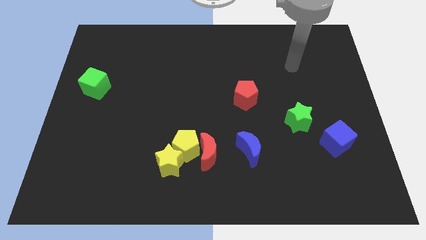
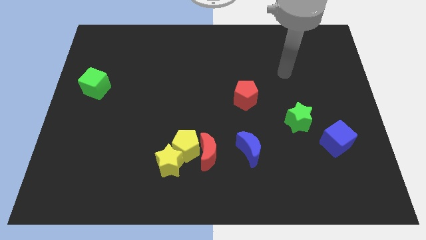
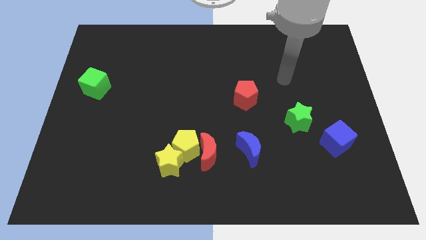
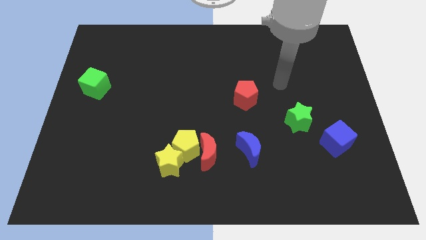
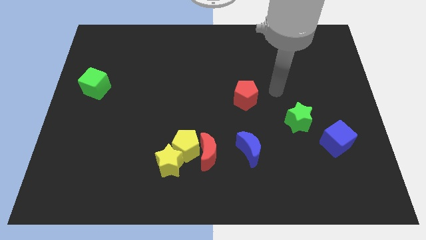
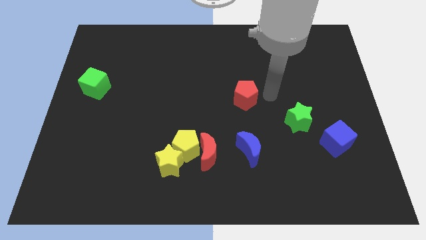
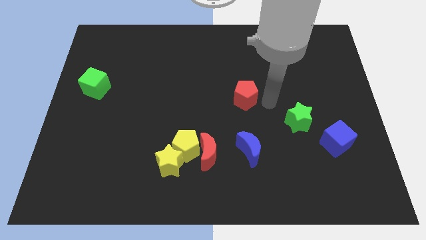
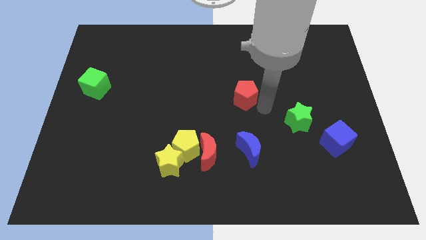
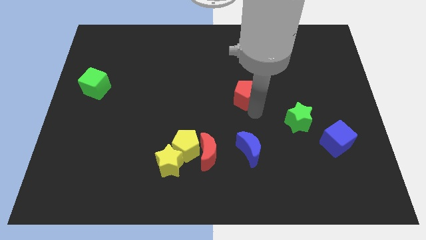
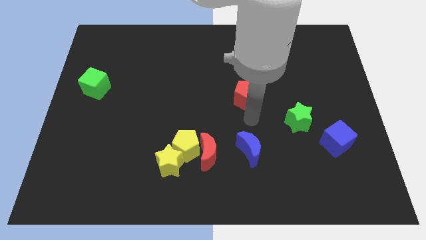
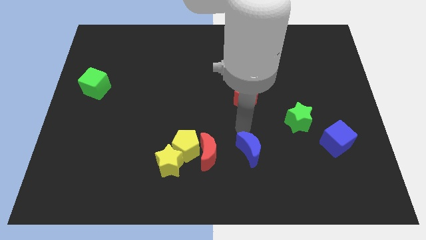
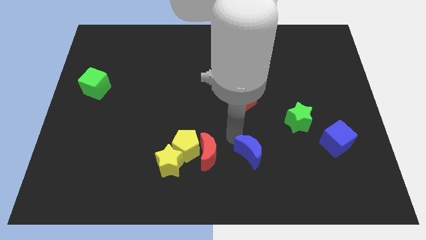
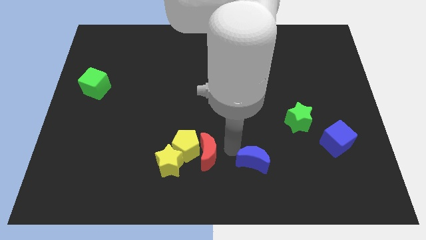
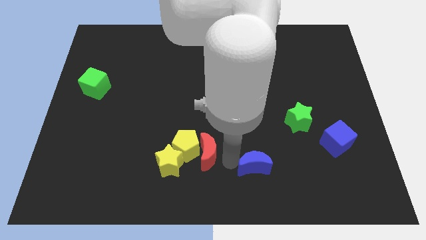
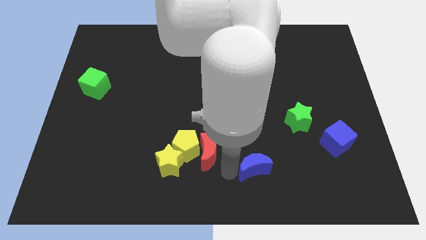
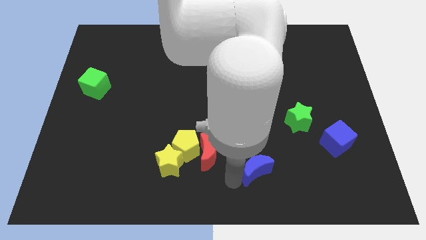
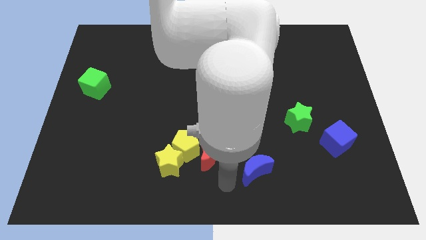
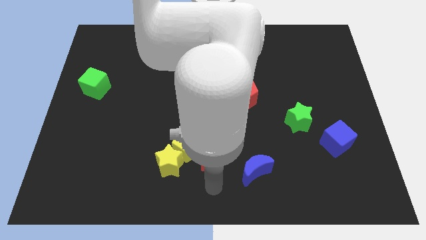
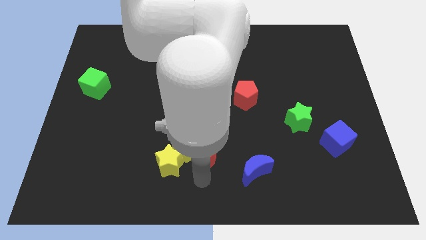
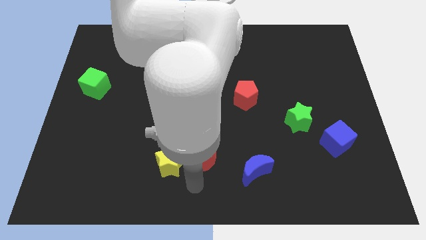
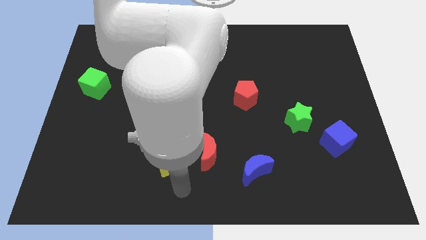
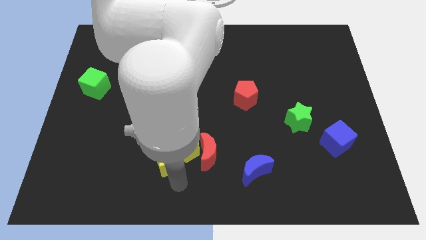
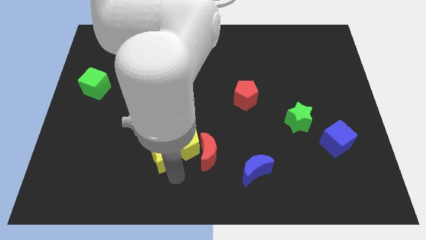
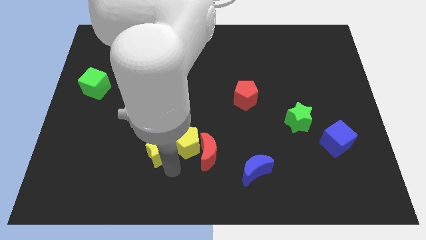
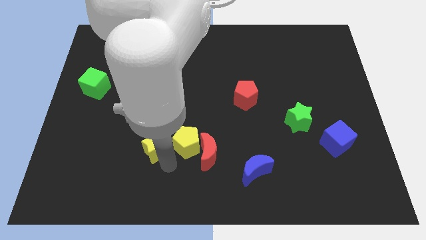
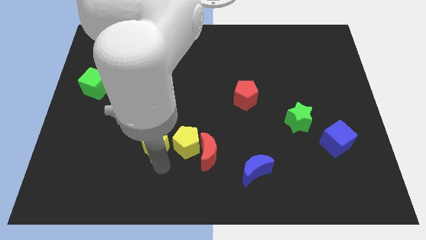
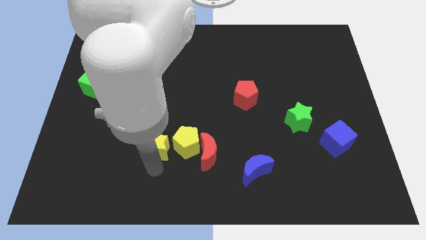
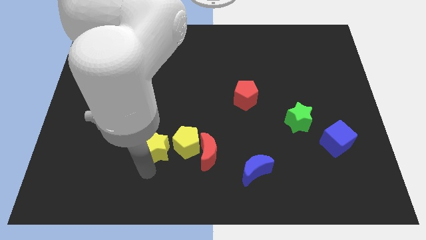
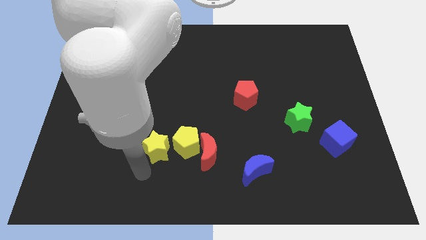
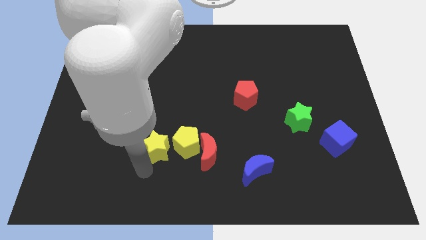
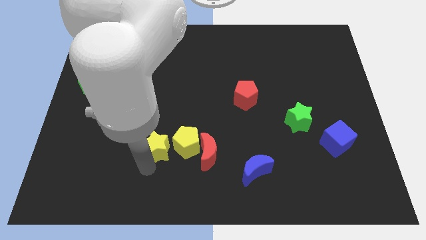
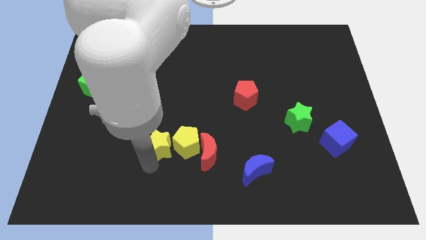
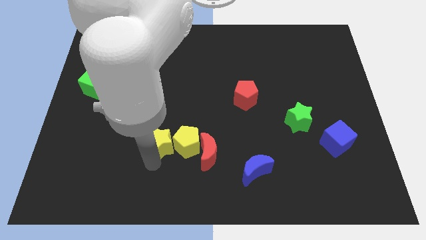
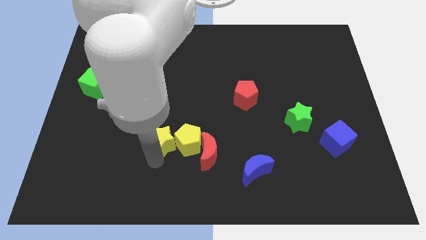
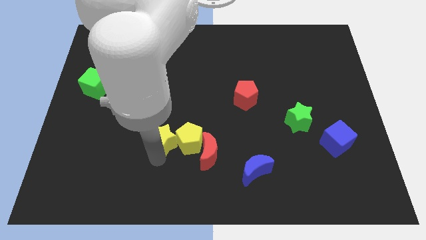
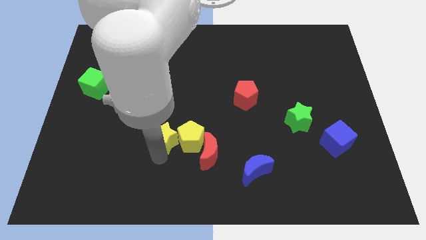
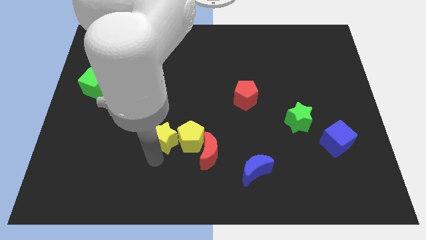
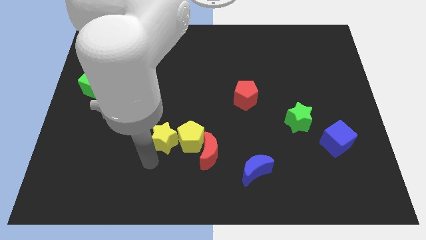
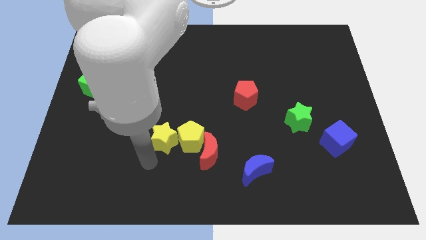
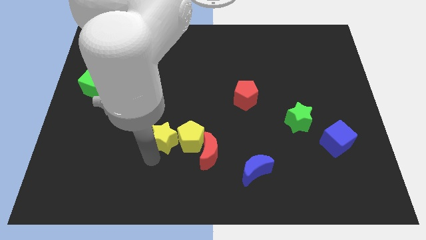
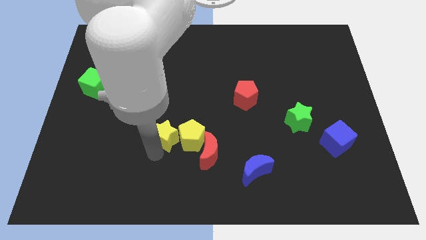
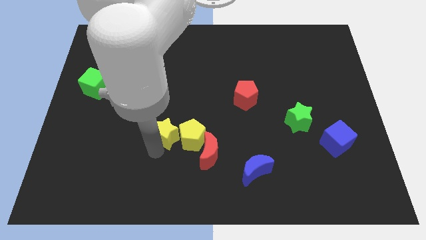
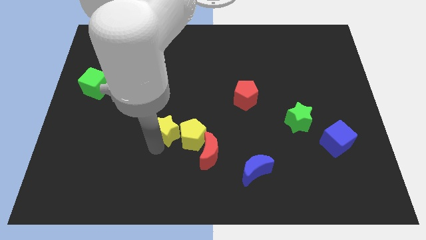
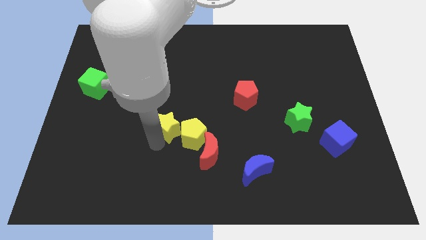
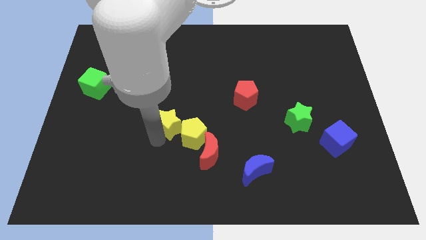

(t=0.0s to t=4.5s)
push the yellow star to the center

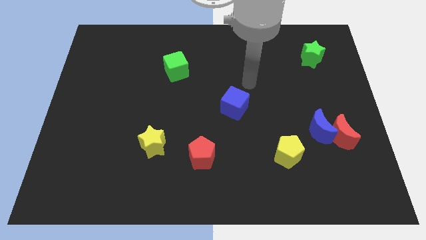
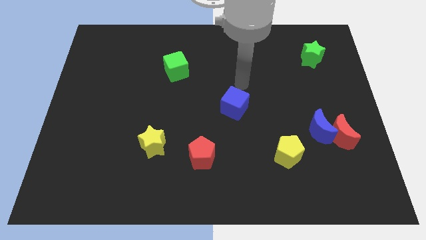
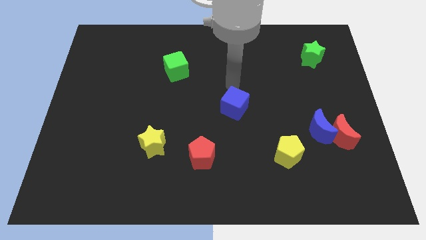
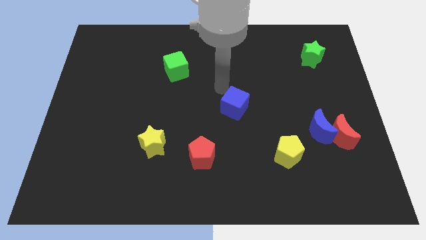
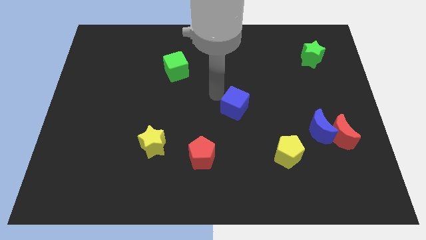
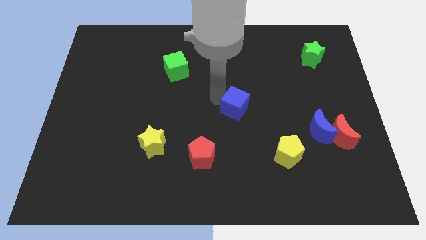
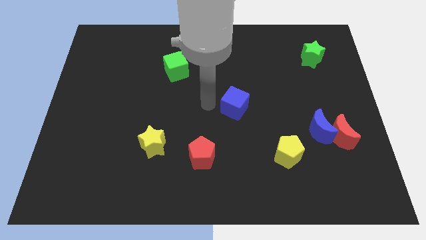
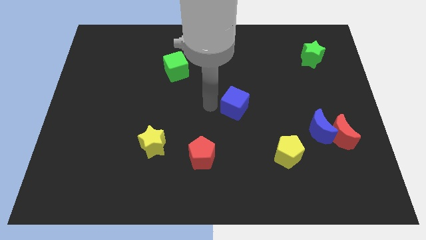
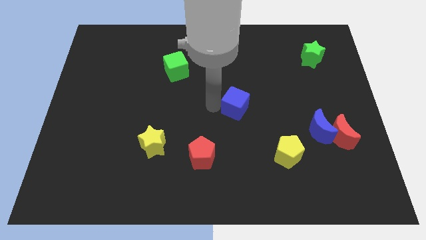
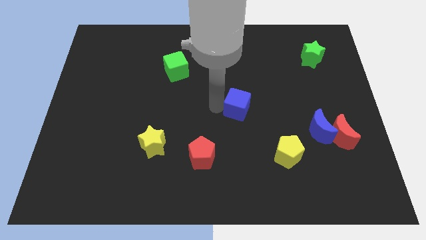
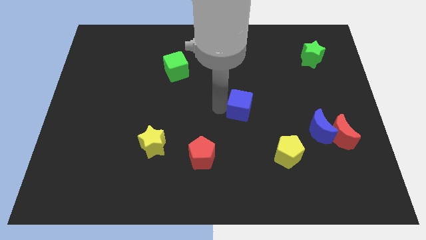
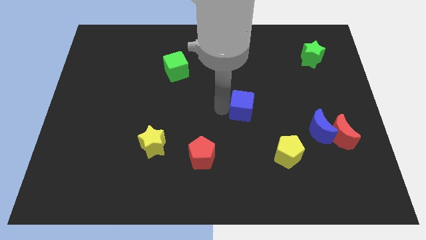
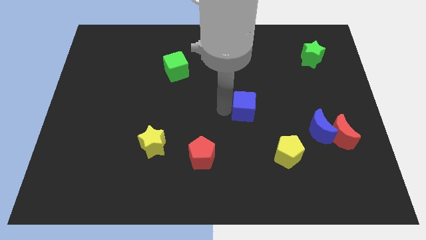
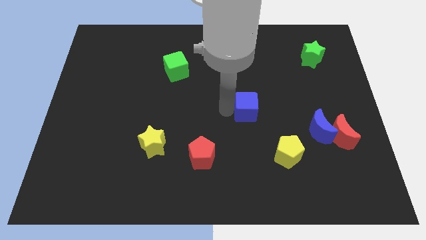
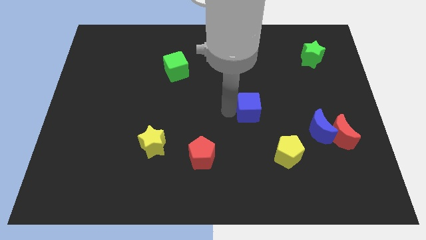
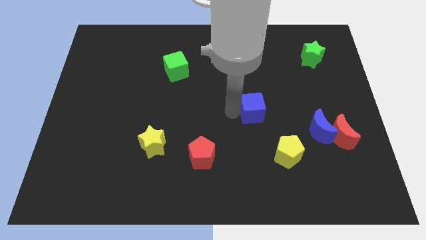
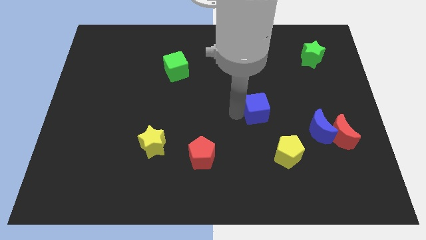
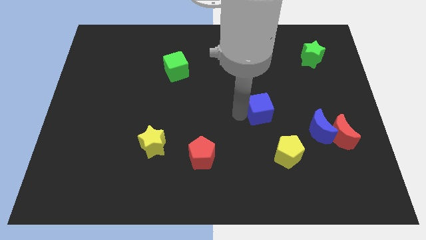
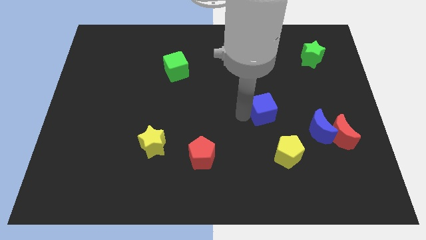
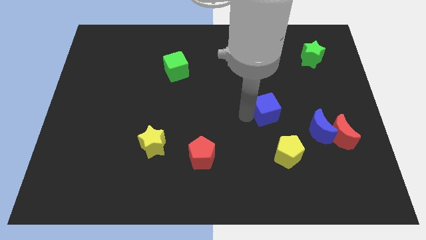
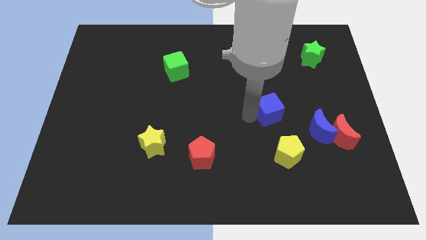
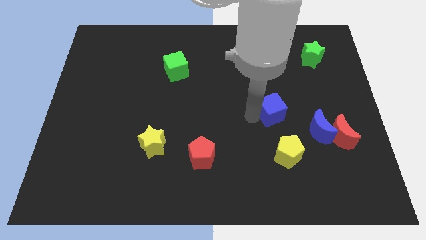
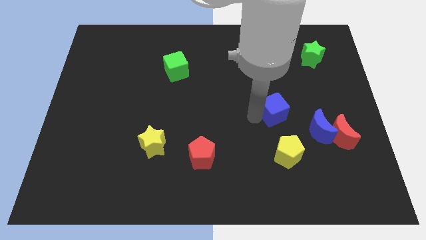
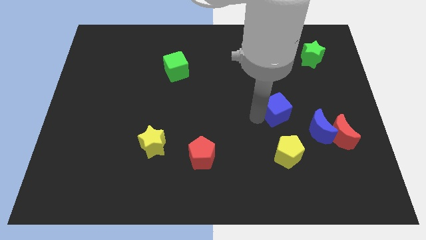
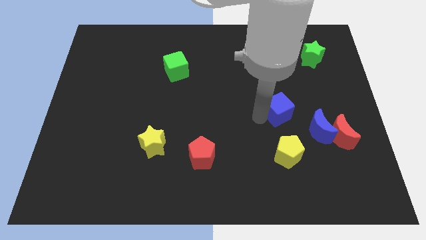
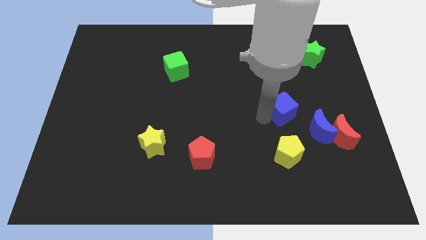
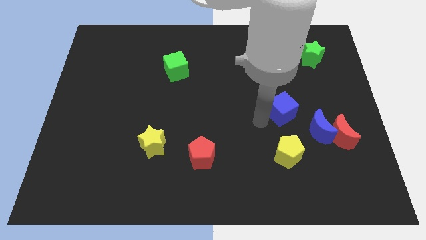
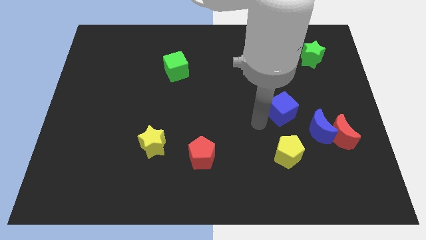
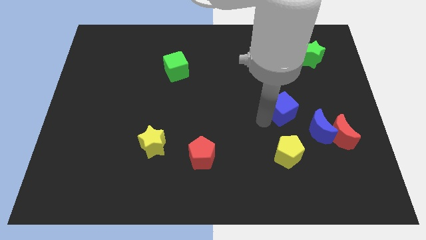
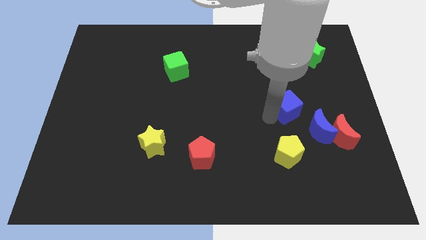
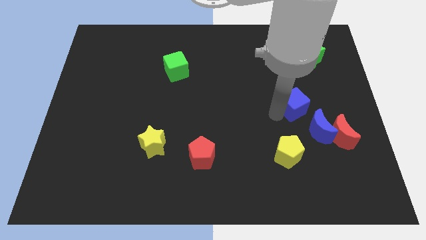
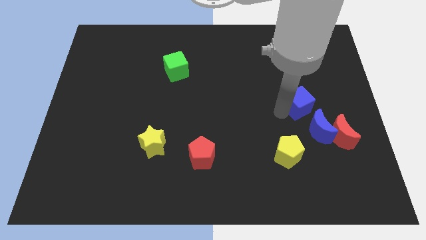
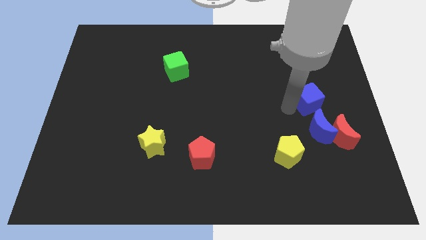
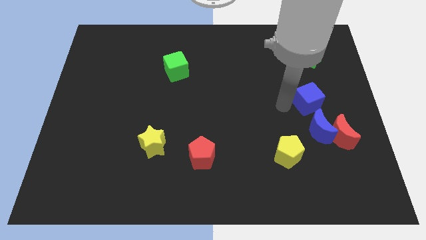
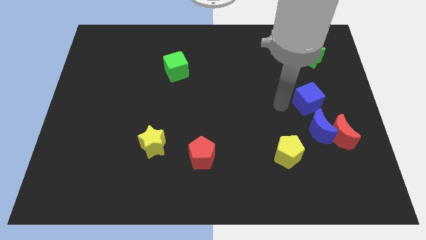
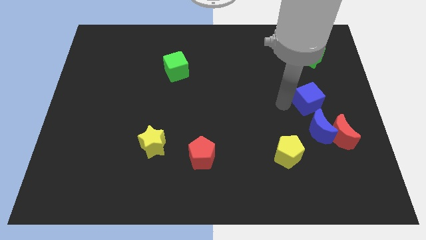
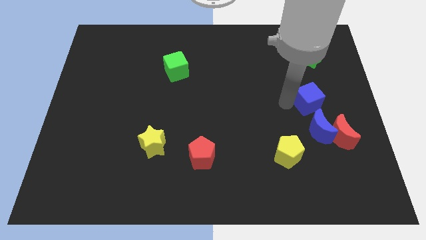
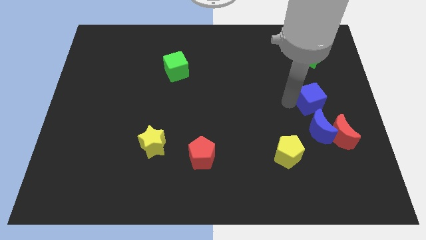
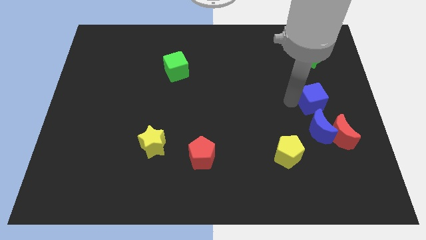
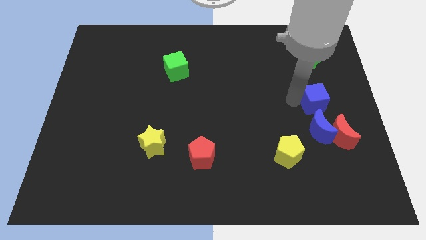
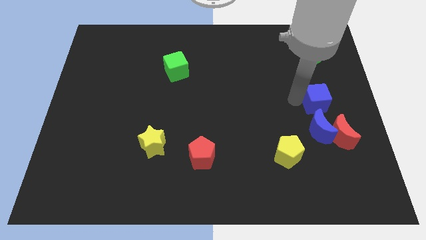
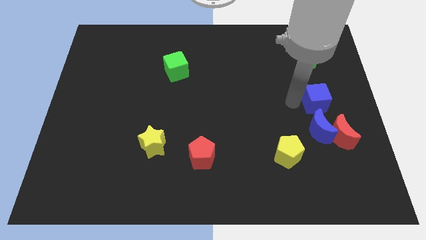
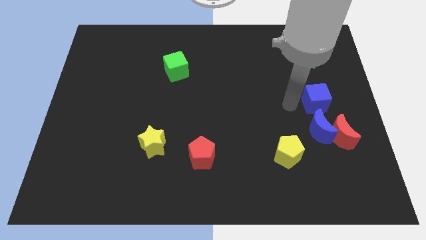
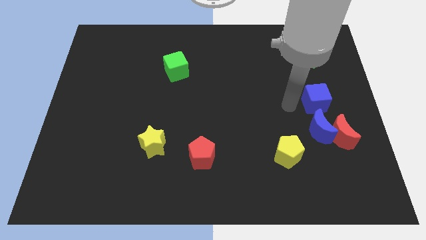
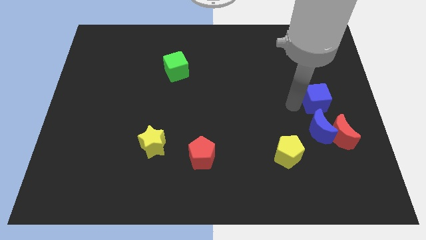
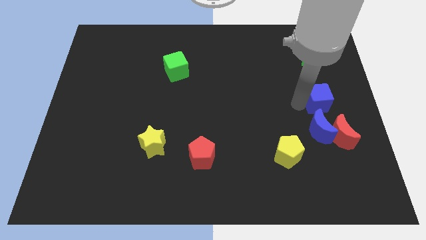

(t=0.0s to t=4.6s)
move the blue cube to the center right
